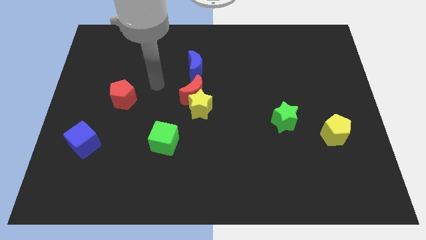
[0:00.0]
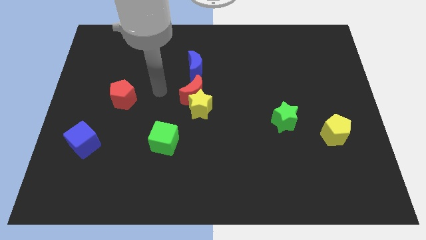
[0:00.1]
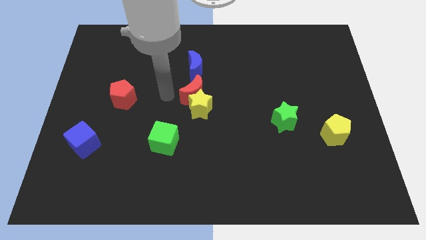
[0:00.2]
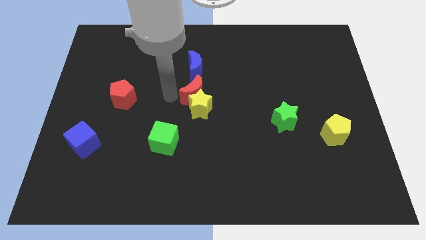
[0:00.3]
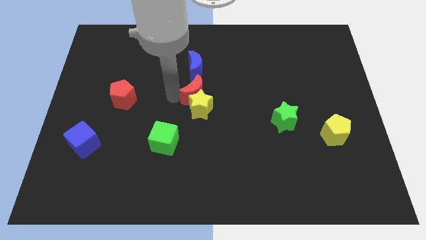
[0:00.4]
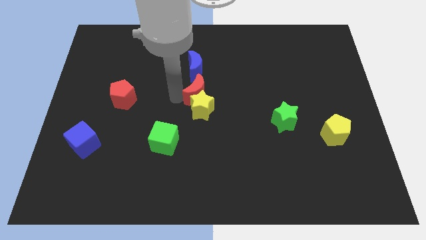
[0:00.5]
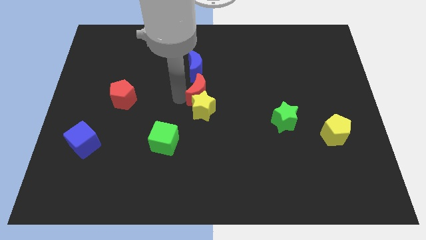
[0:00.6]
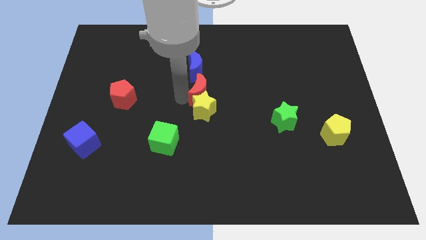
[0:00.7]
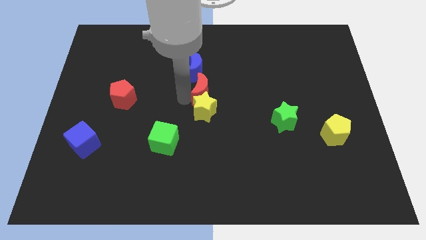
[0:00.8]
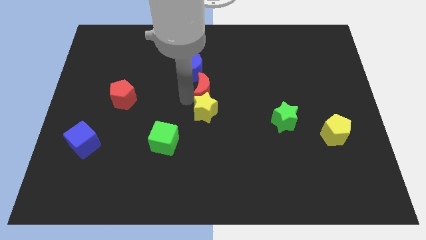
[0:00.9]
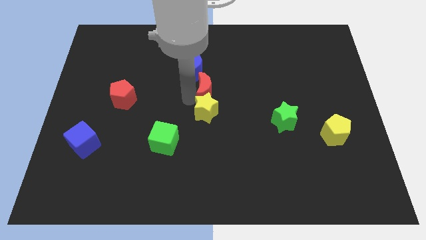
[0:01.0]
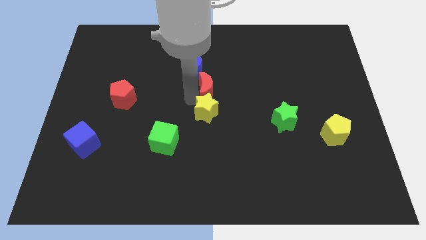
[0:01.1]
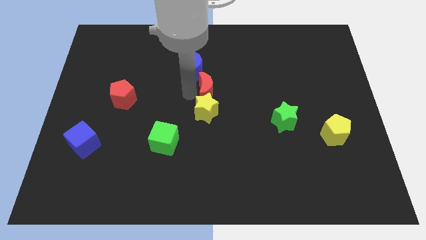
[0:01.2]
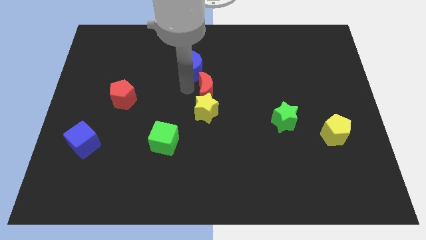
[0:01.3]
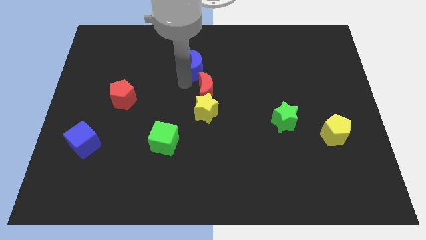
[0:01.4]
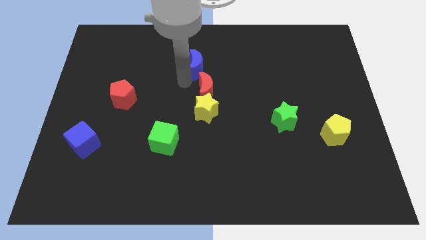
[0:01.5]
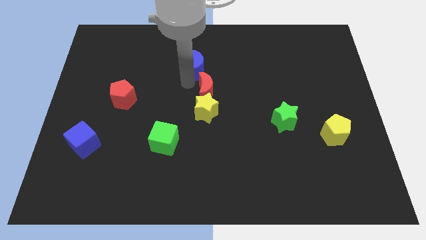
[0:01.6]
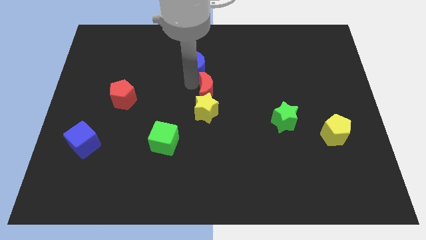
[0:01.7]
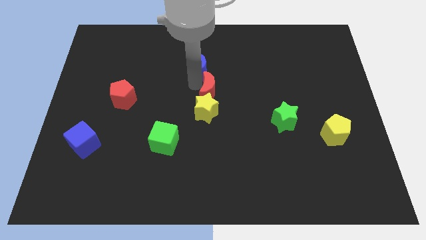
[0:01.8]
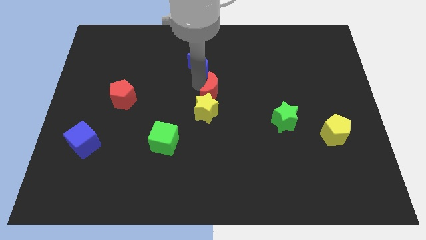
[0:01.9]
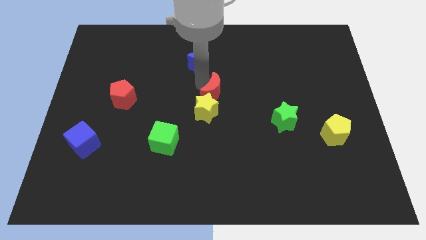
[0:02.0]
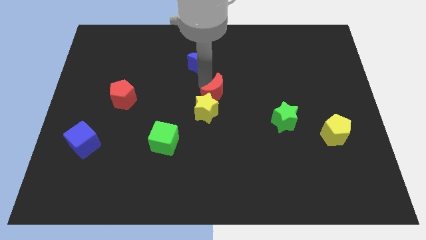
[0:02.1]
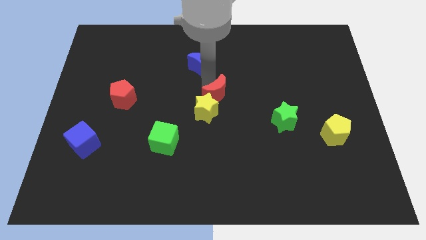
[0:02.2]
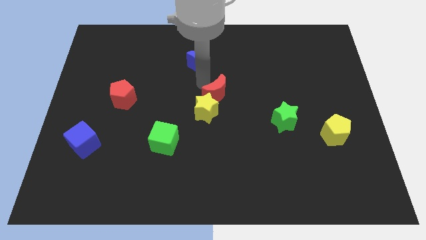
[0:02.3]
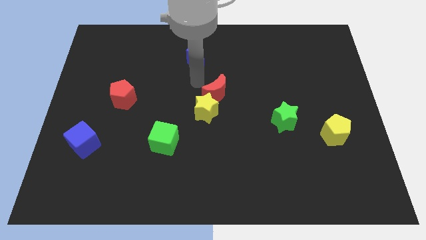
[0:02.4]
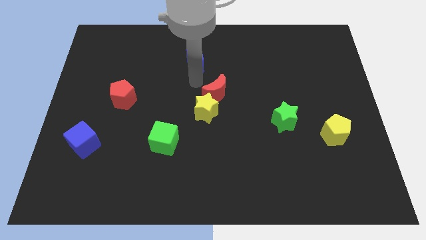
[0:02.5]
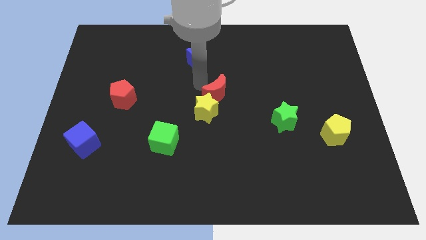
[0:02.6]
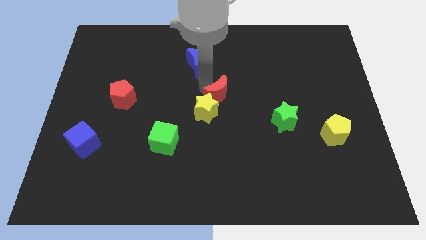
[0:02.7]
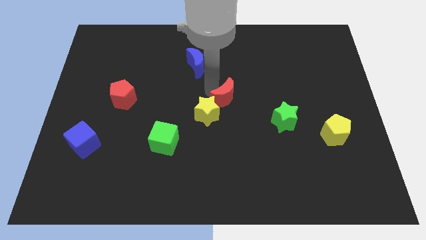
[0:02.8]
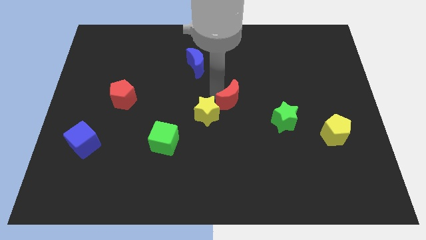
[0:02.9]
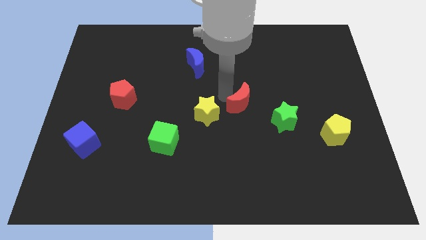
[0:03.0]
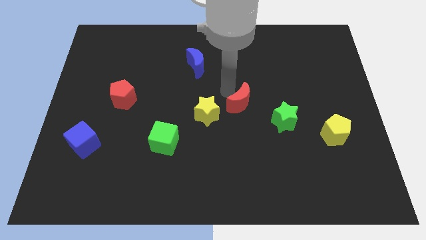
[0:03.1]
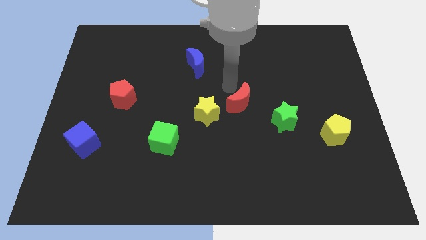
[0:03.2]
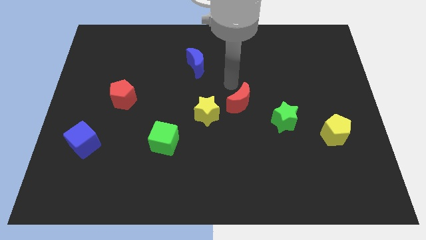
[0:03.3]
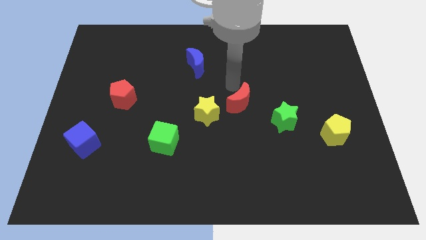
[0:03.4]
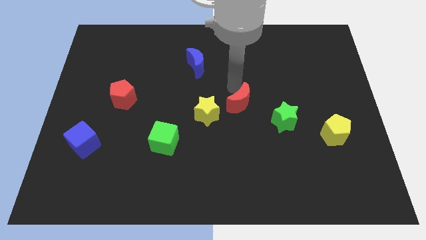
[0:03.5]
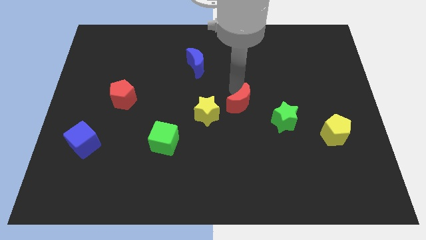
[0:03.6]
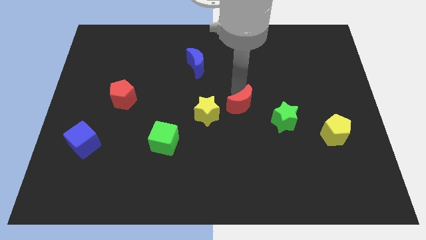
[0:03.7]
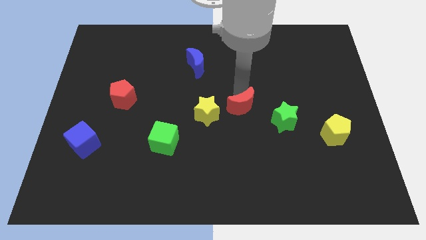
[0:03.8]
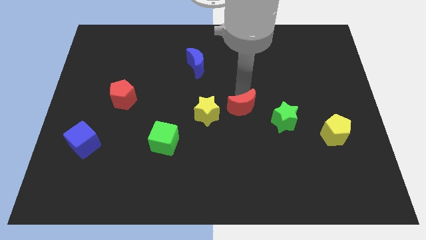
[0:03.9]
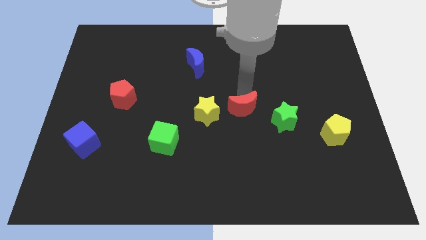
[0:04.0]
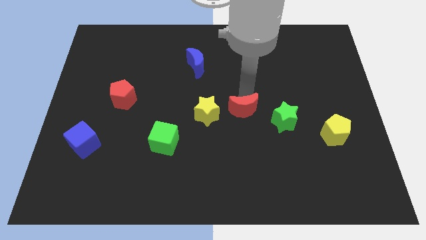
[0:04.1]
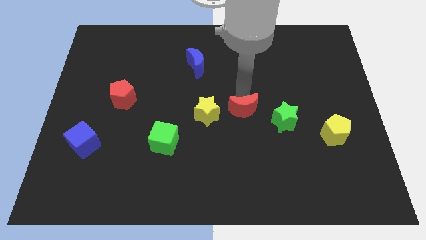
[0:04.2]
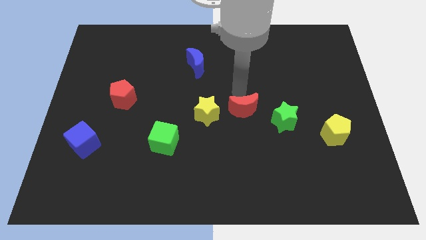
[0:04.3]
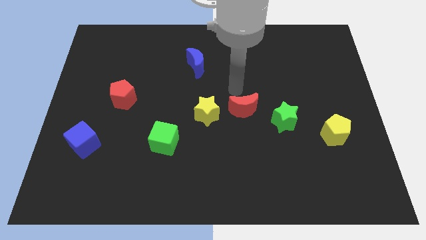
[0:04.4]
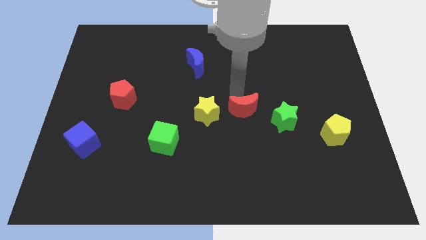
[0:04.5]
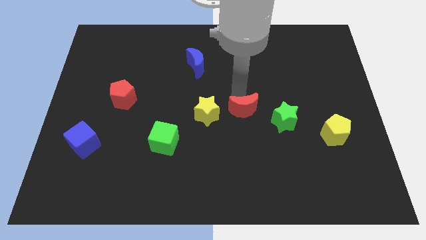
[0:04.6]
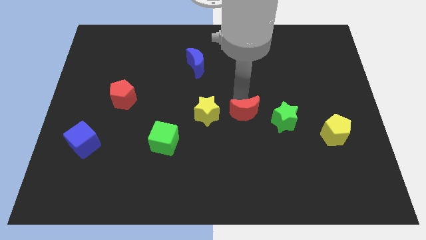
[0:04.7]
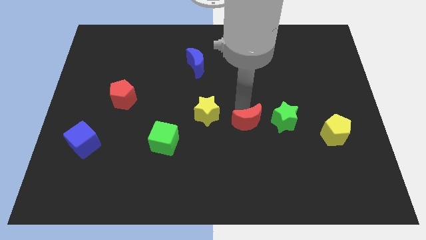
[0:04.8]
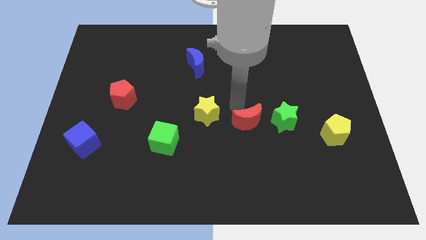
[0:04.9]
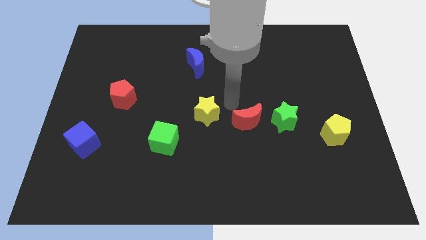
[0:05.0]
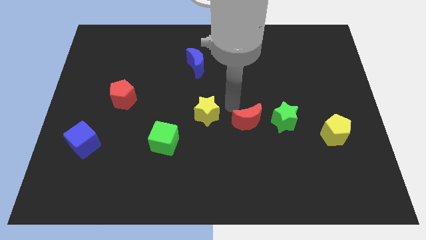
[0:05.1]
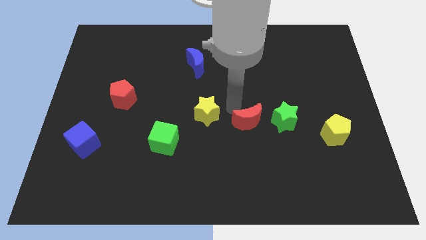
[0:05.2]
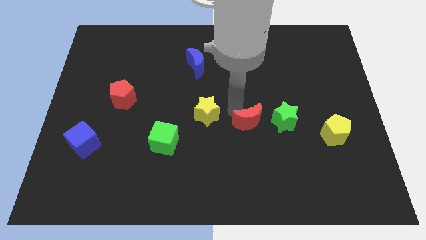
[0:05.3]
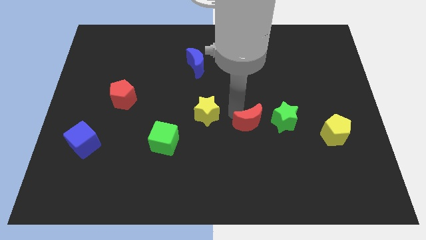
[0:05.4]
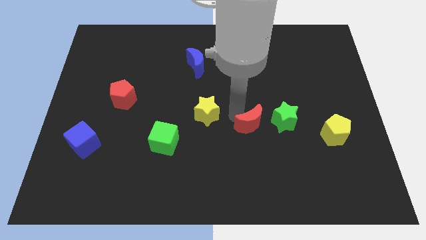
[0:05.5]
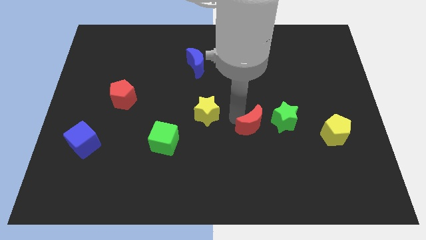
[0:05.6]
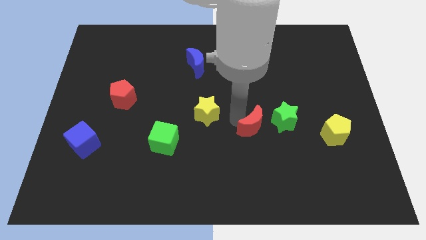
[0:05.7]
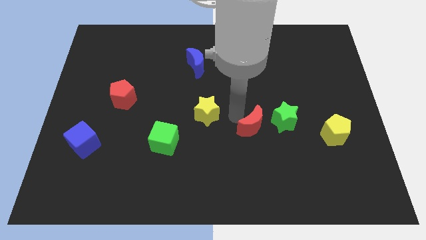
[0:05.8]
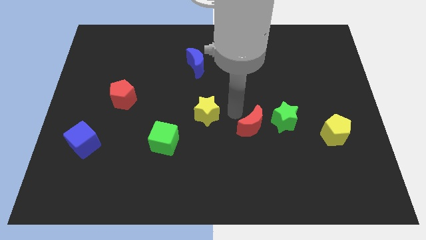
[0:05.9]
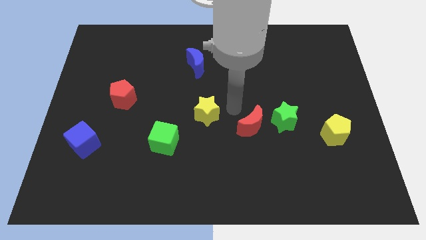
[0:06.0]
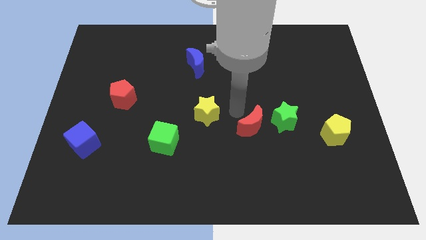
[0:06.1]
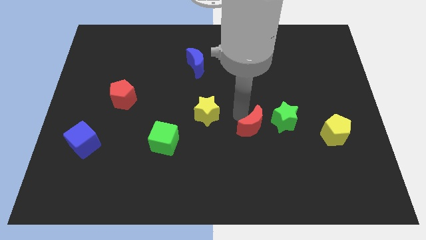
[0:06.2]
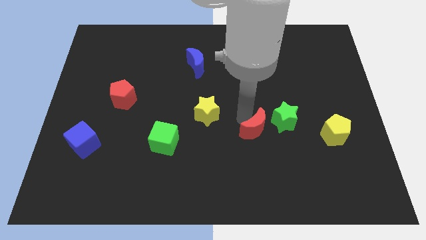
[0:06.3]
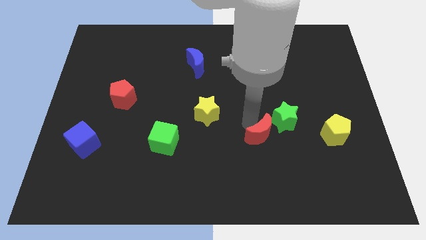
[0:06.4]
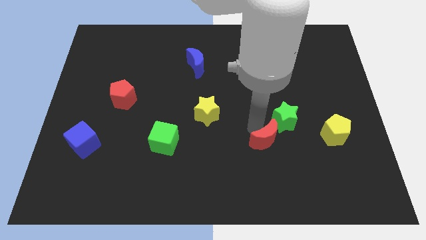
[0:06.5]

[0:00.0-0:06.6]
slide the red moon downwards and then to the right

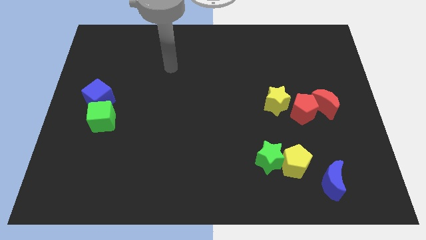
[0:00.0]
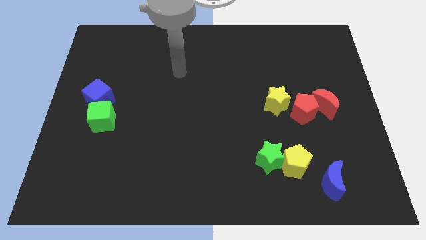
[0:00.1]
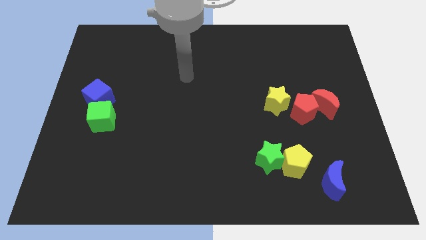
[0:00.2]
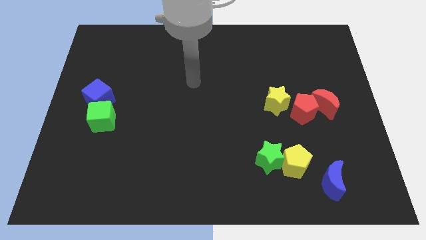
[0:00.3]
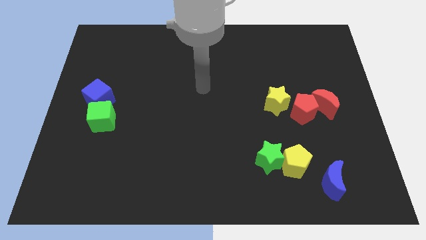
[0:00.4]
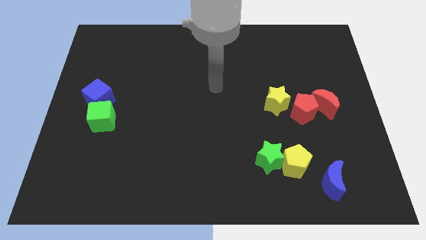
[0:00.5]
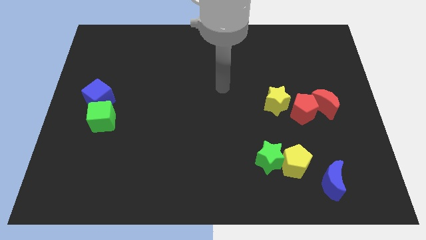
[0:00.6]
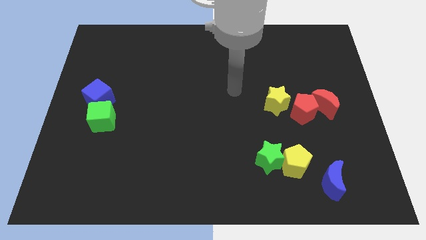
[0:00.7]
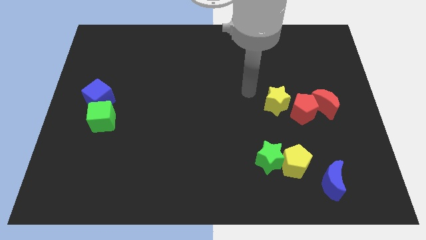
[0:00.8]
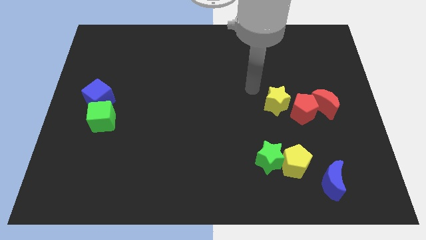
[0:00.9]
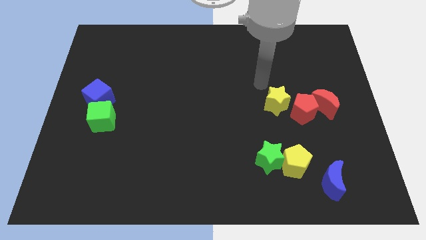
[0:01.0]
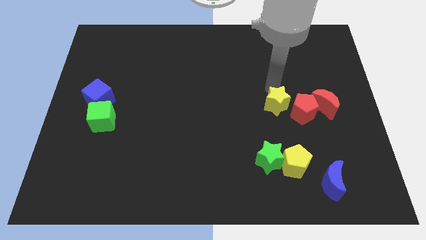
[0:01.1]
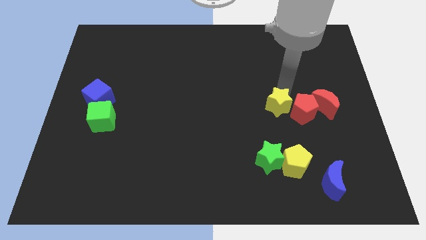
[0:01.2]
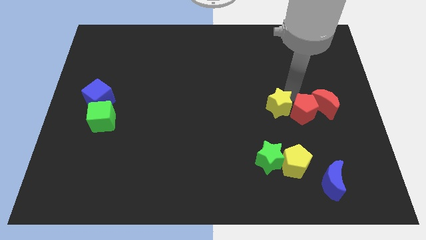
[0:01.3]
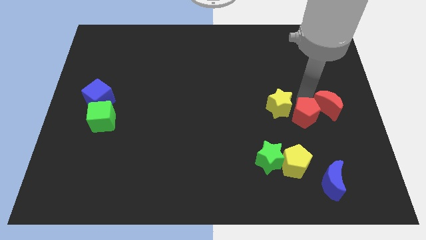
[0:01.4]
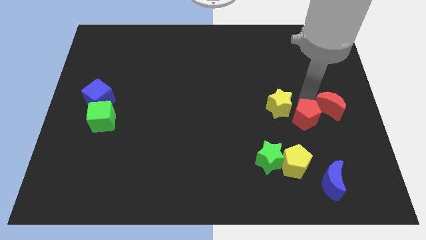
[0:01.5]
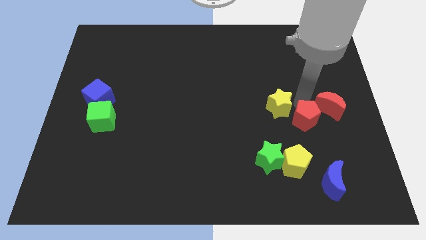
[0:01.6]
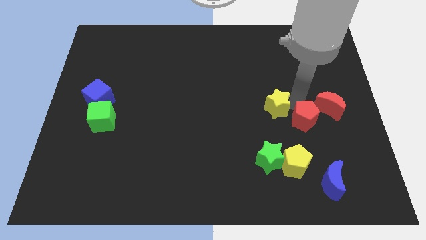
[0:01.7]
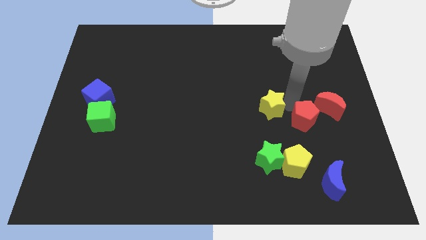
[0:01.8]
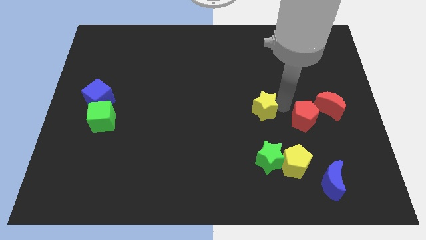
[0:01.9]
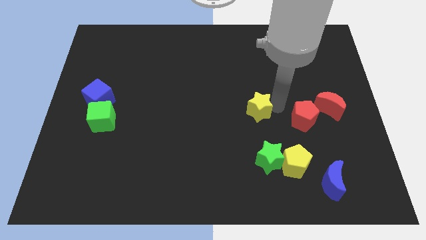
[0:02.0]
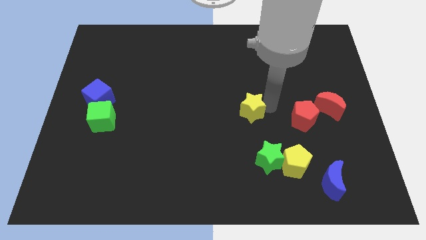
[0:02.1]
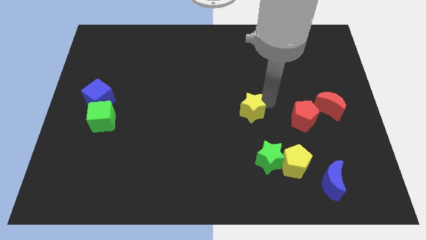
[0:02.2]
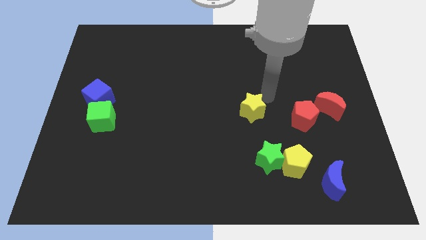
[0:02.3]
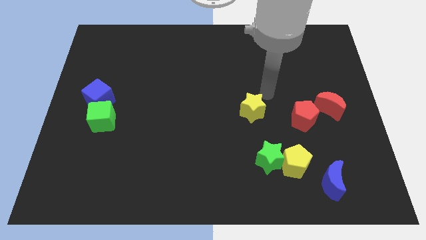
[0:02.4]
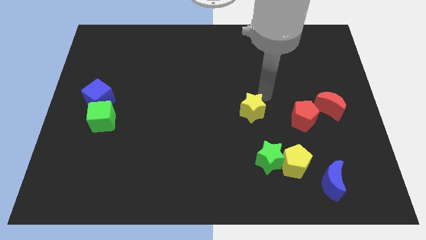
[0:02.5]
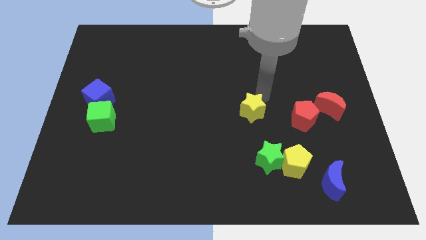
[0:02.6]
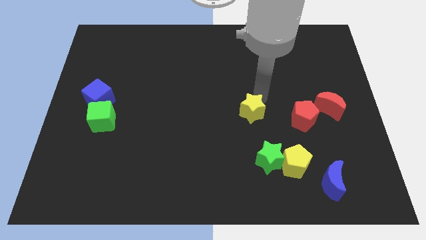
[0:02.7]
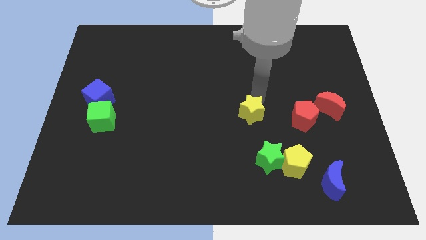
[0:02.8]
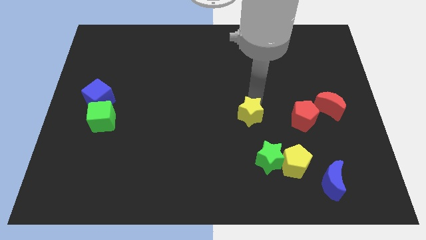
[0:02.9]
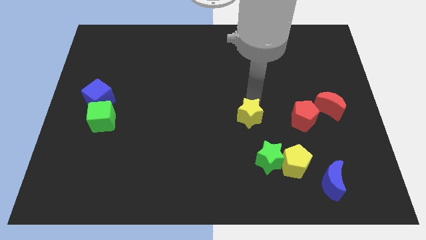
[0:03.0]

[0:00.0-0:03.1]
slightly move the yellow star diagonally down and left
